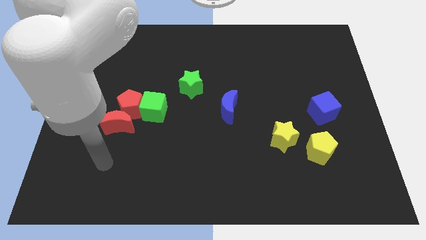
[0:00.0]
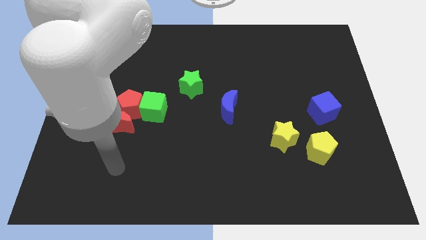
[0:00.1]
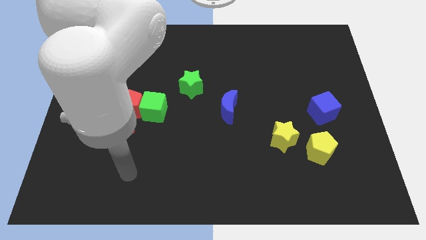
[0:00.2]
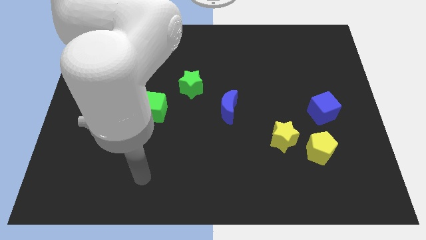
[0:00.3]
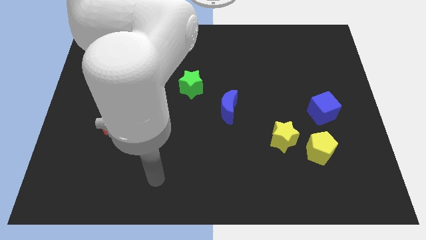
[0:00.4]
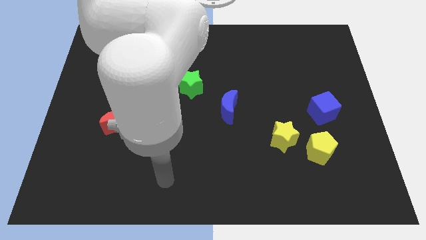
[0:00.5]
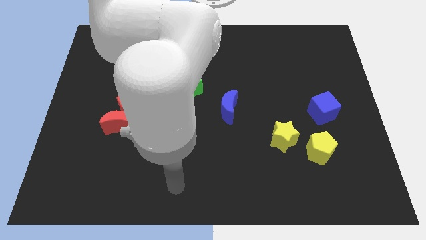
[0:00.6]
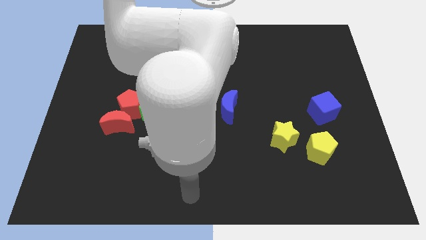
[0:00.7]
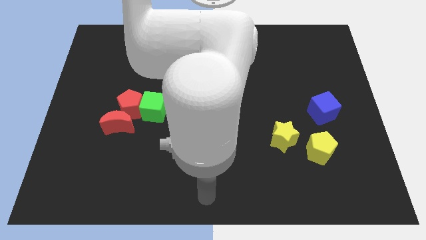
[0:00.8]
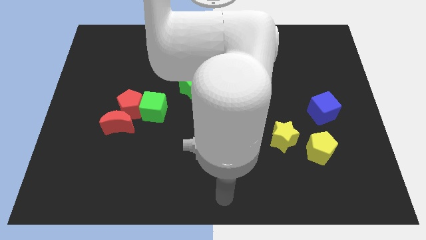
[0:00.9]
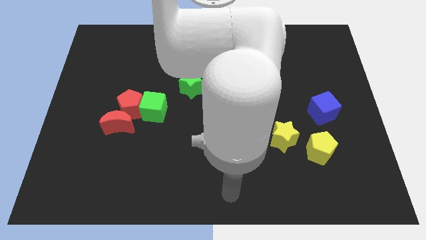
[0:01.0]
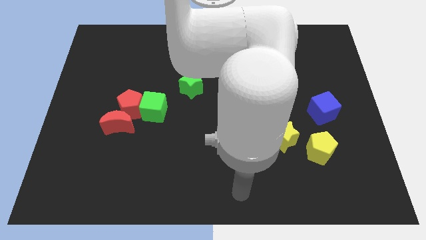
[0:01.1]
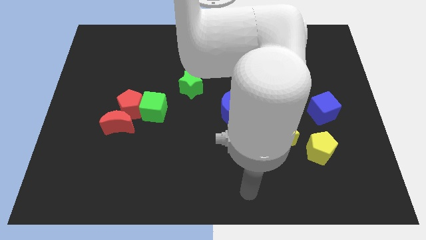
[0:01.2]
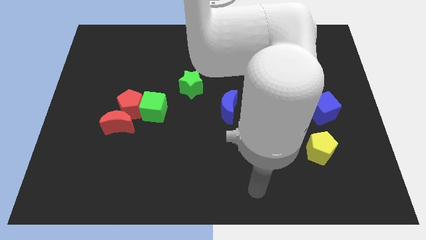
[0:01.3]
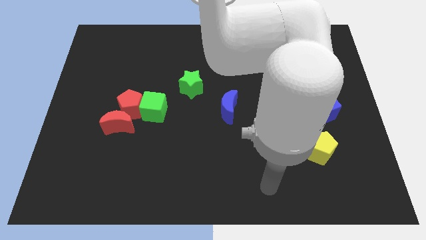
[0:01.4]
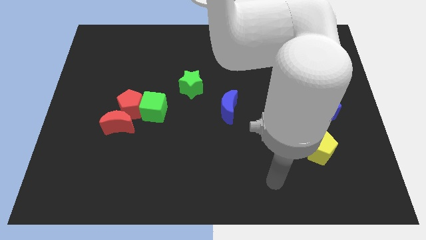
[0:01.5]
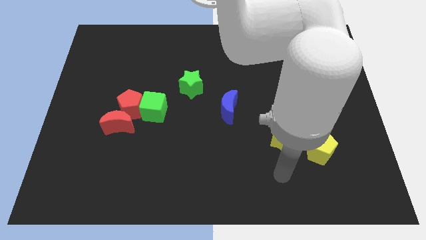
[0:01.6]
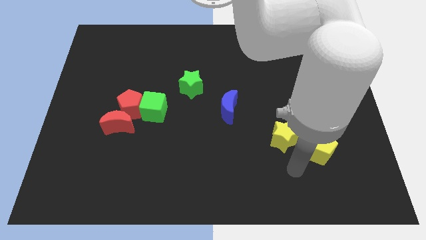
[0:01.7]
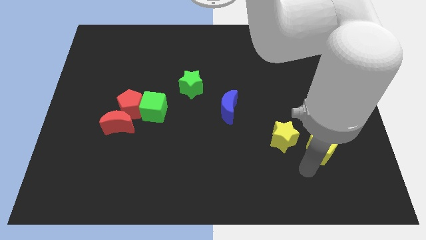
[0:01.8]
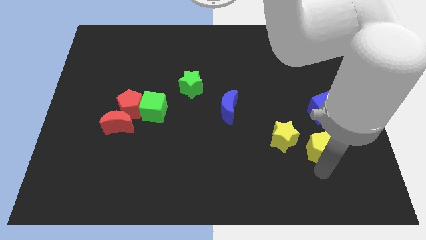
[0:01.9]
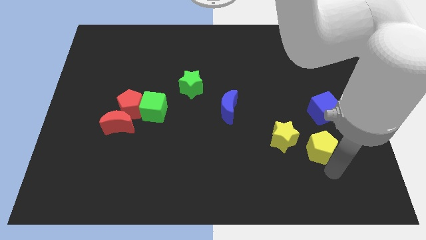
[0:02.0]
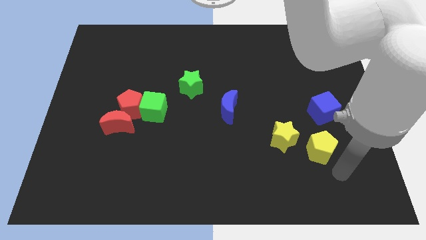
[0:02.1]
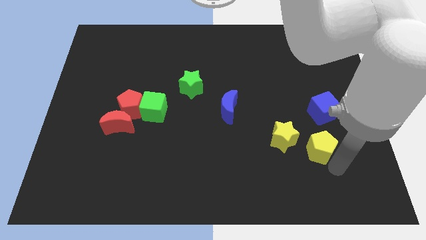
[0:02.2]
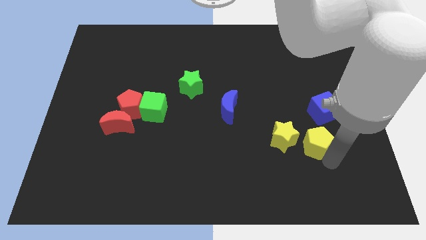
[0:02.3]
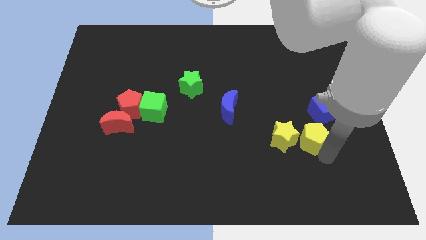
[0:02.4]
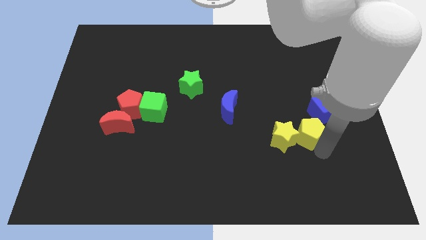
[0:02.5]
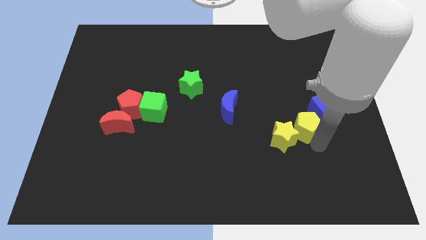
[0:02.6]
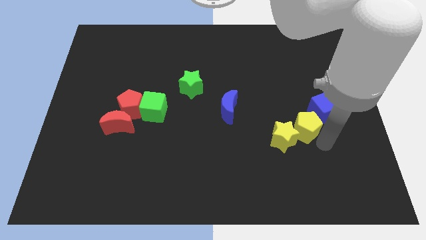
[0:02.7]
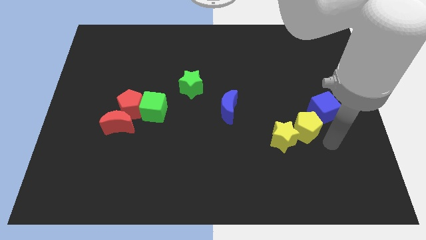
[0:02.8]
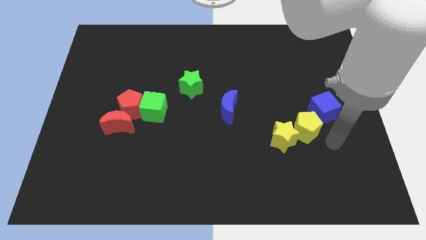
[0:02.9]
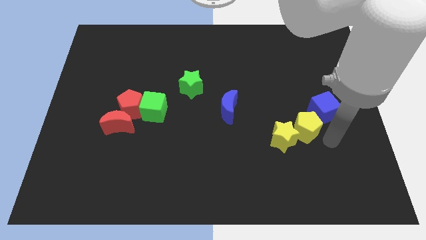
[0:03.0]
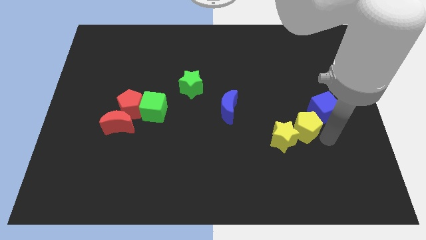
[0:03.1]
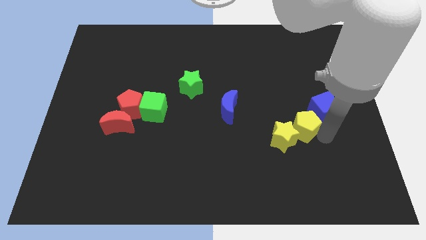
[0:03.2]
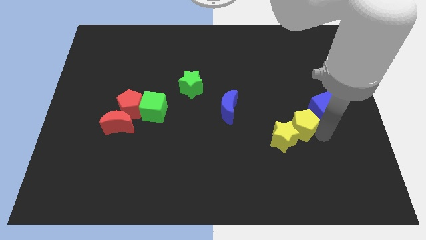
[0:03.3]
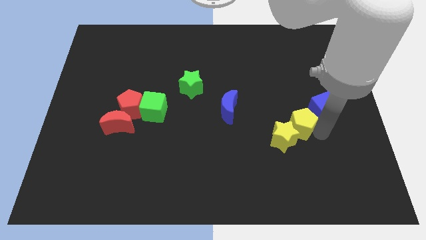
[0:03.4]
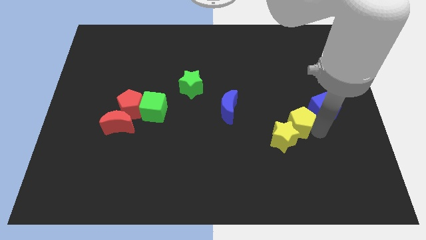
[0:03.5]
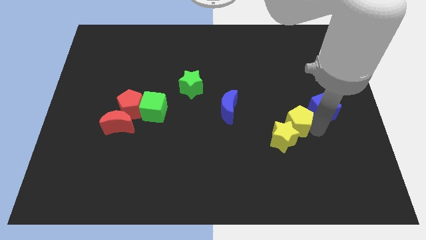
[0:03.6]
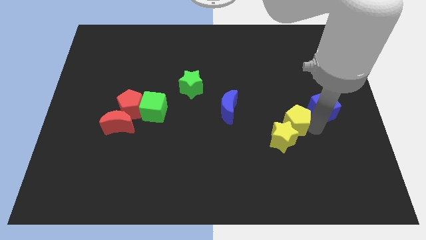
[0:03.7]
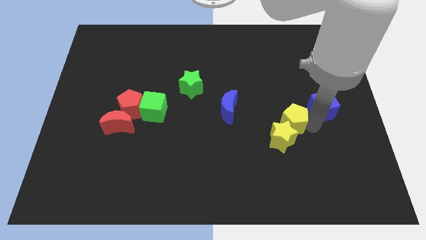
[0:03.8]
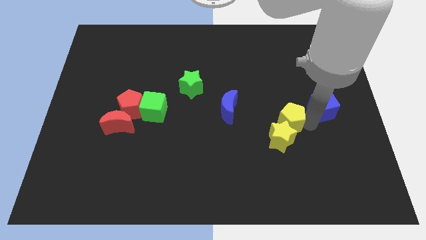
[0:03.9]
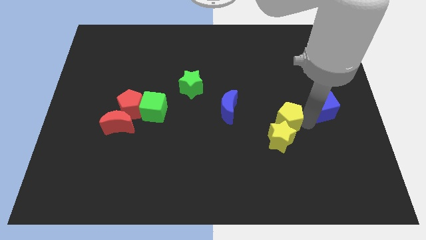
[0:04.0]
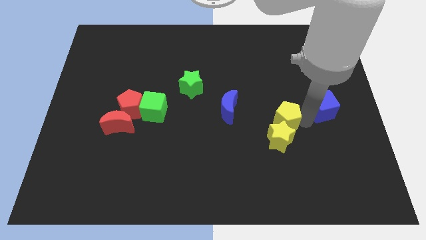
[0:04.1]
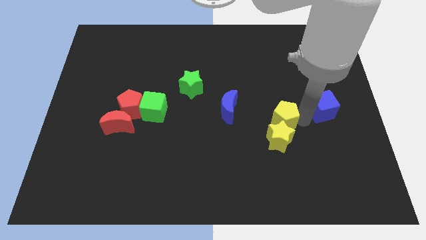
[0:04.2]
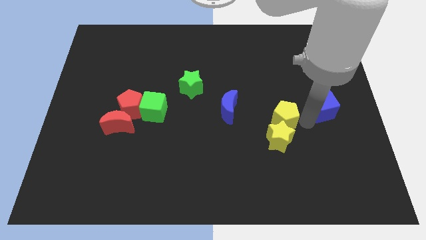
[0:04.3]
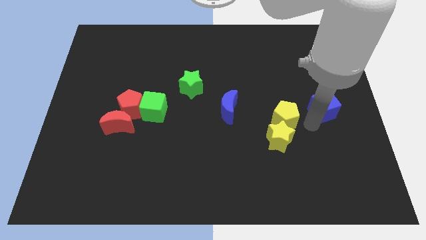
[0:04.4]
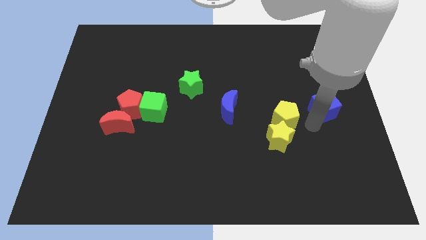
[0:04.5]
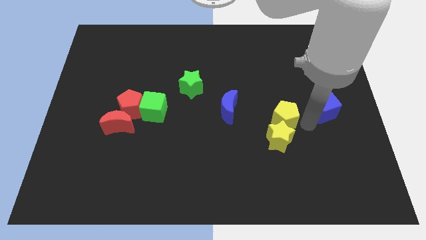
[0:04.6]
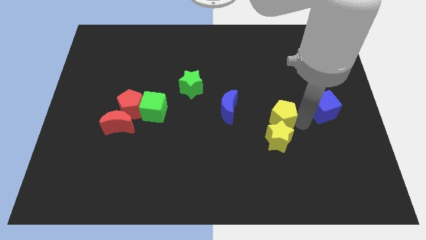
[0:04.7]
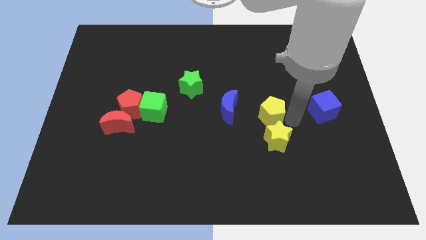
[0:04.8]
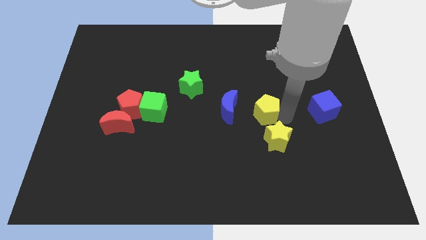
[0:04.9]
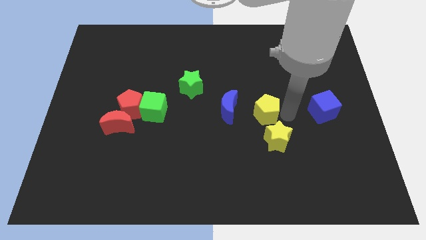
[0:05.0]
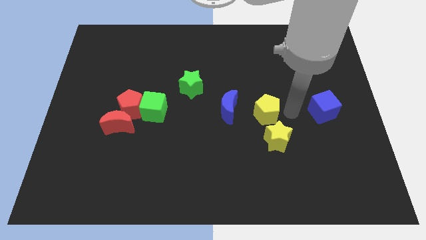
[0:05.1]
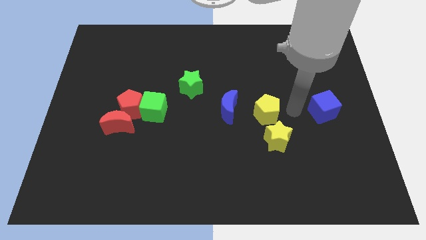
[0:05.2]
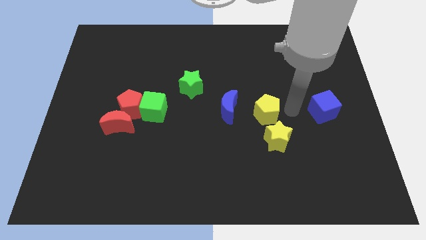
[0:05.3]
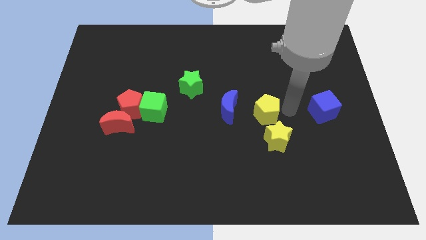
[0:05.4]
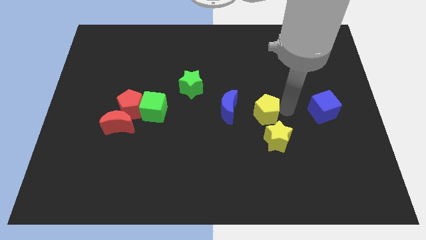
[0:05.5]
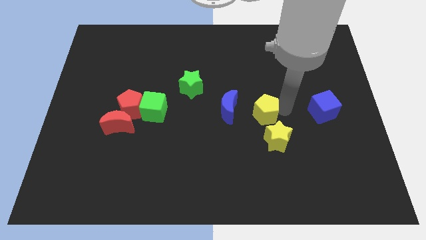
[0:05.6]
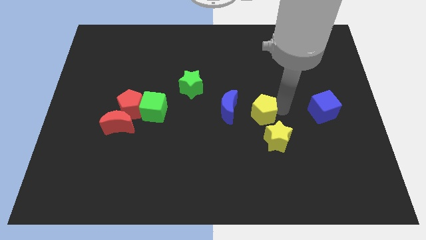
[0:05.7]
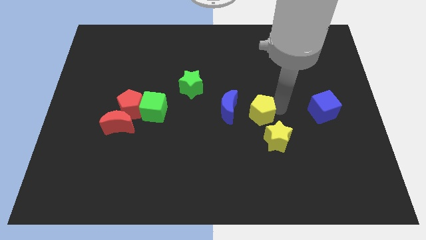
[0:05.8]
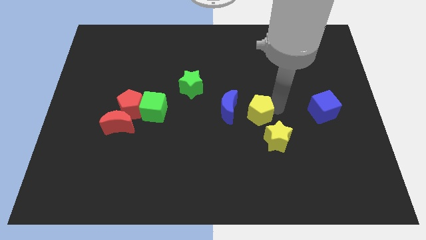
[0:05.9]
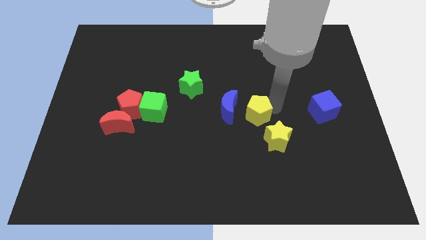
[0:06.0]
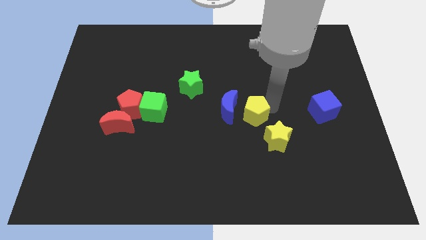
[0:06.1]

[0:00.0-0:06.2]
push the yellow pentagon to the blue moon
